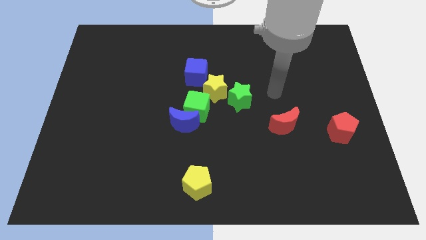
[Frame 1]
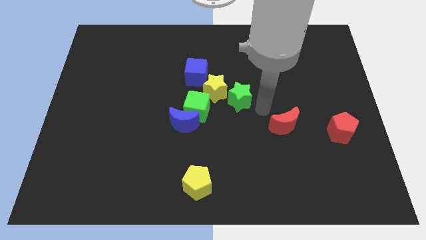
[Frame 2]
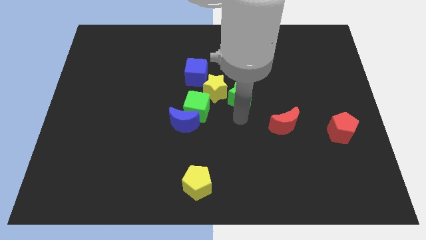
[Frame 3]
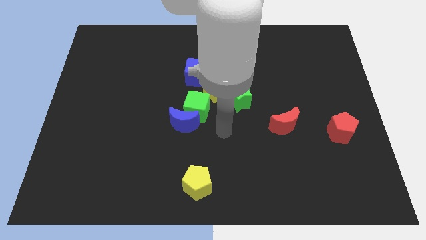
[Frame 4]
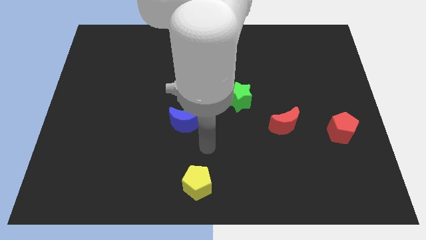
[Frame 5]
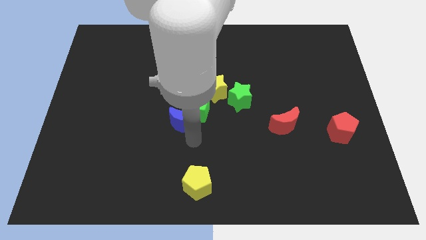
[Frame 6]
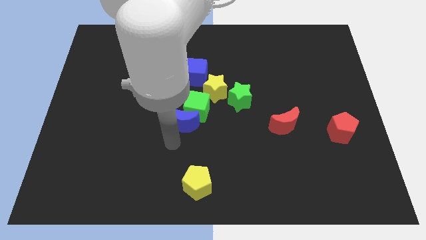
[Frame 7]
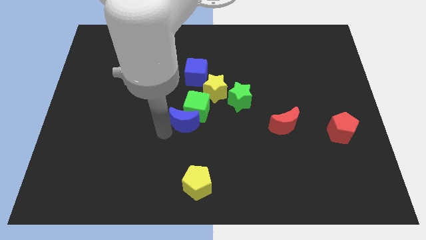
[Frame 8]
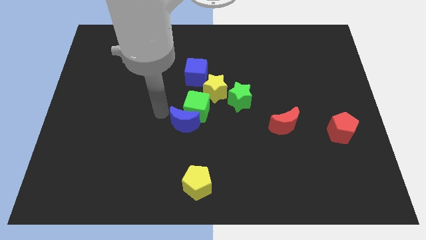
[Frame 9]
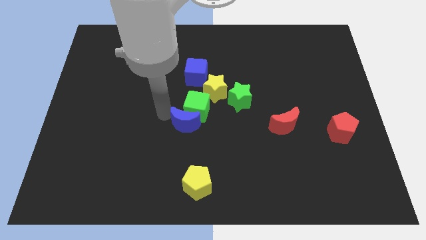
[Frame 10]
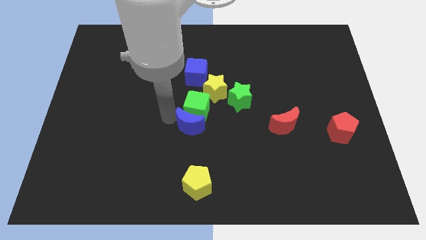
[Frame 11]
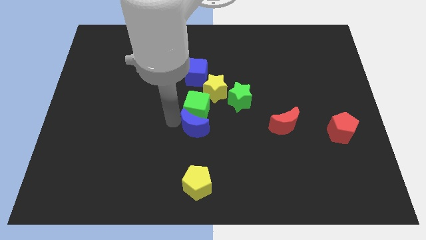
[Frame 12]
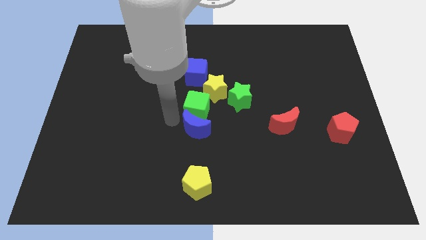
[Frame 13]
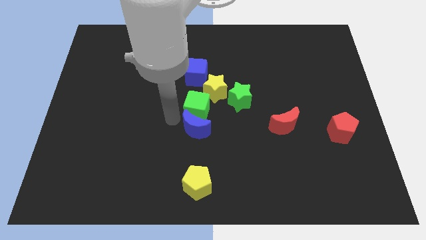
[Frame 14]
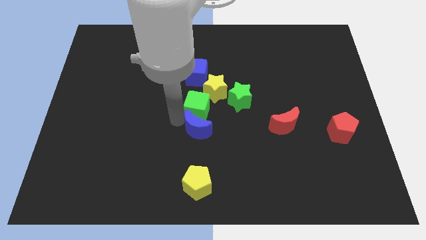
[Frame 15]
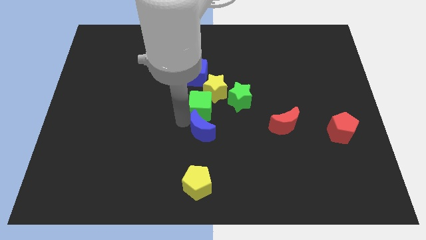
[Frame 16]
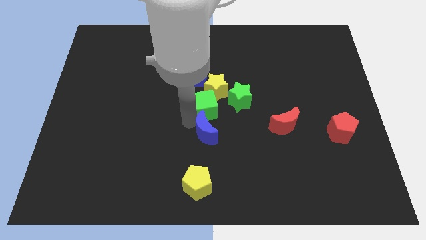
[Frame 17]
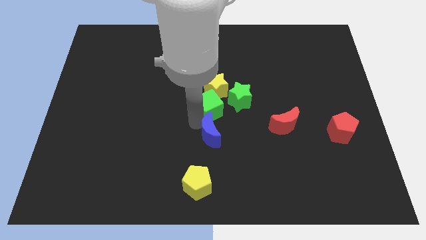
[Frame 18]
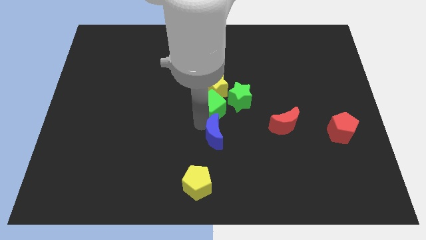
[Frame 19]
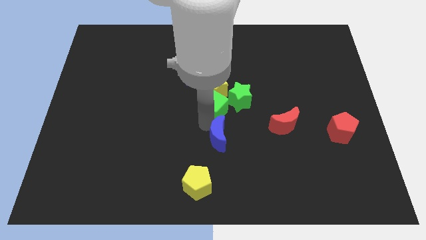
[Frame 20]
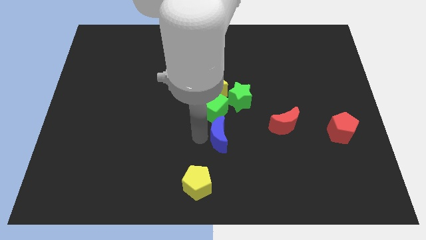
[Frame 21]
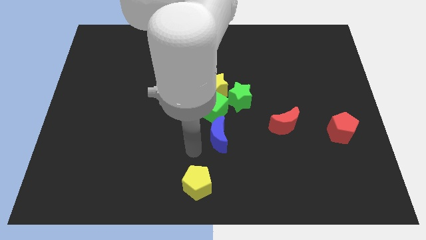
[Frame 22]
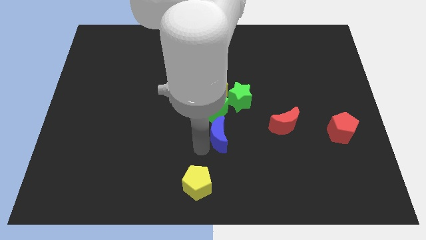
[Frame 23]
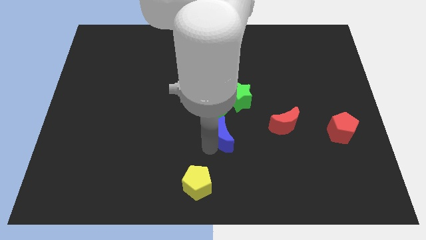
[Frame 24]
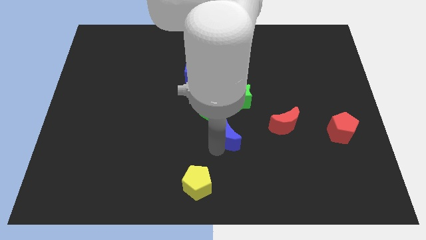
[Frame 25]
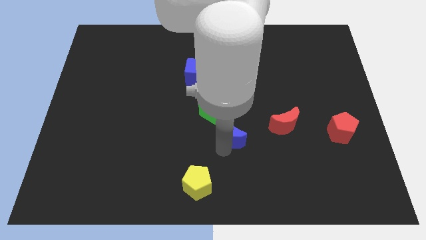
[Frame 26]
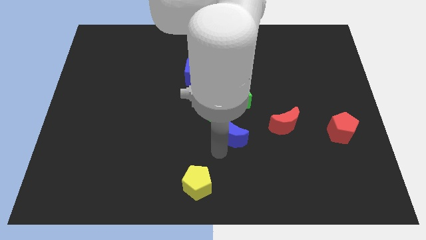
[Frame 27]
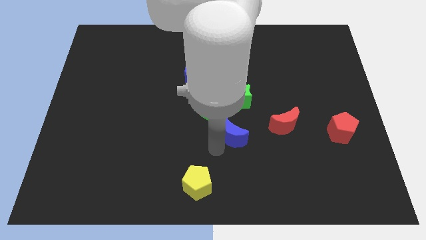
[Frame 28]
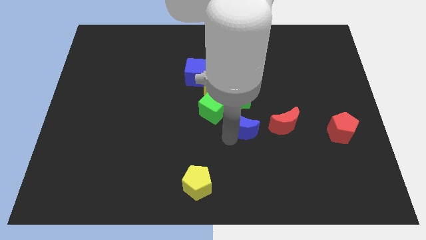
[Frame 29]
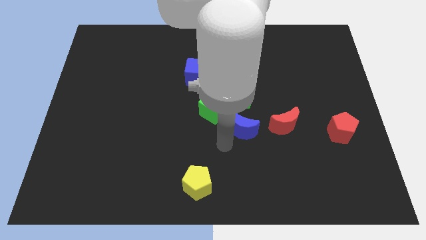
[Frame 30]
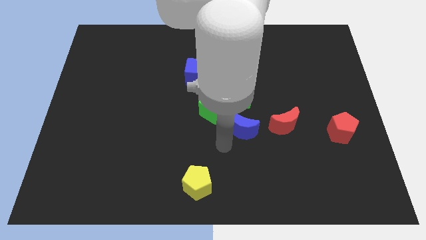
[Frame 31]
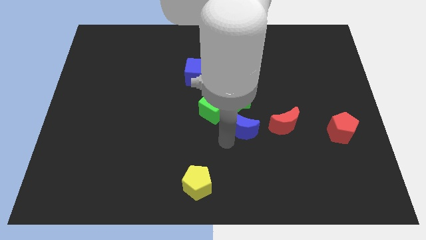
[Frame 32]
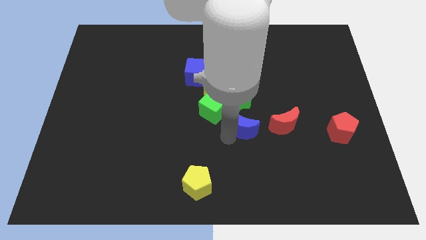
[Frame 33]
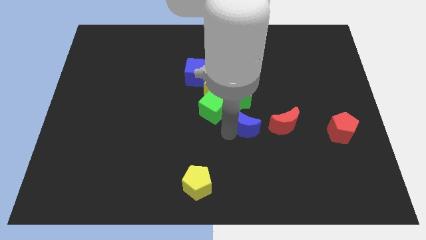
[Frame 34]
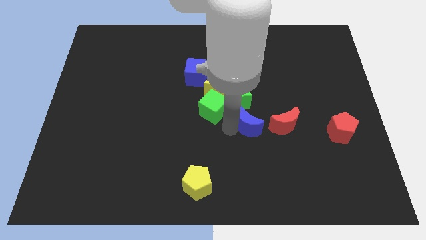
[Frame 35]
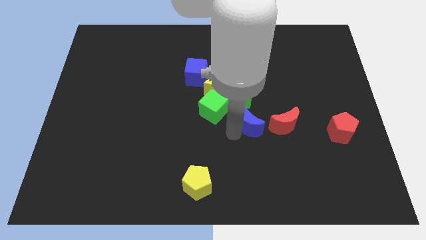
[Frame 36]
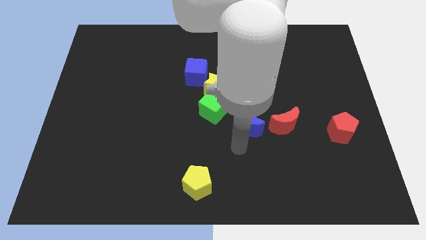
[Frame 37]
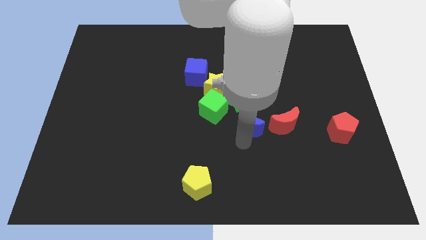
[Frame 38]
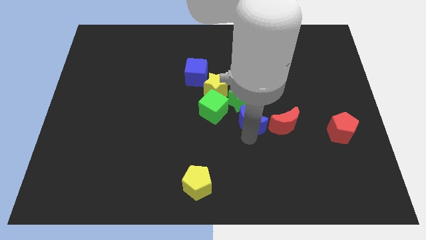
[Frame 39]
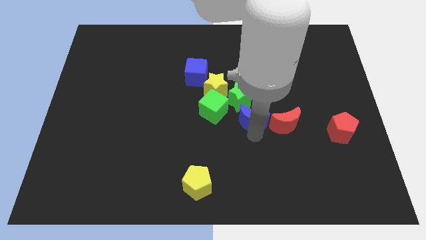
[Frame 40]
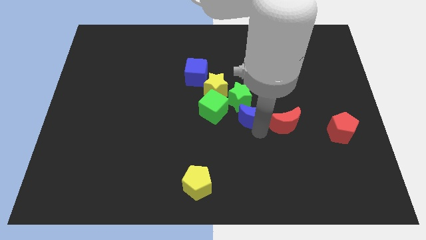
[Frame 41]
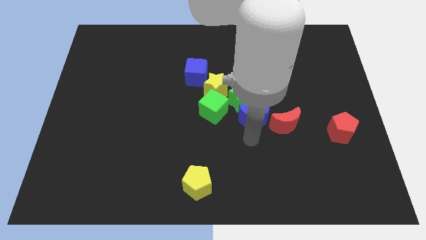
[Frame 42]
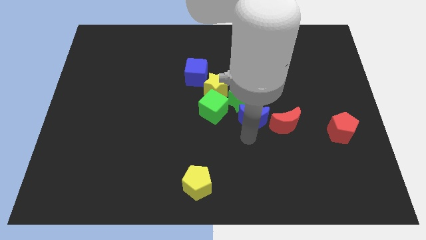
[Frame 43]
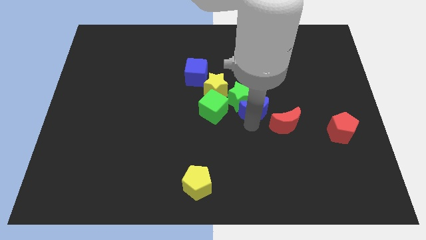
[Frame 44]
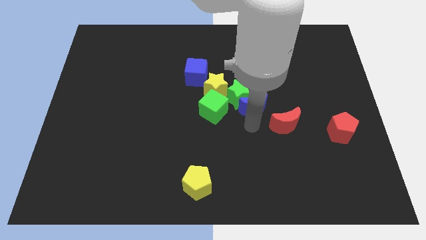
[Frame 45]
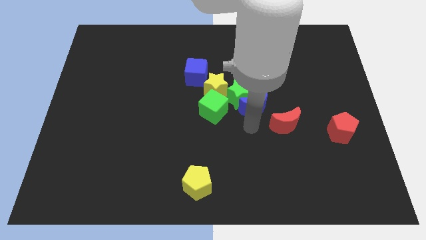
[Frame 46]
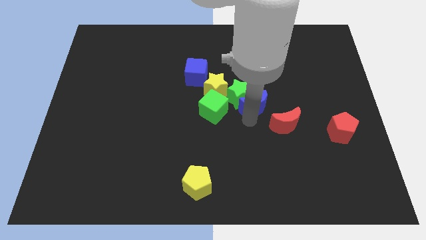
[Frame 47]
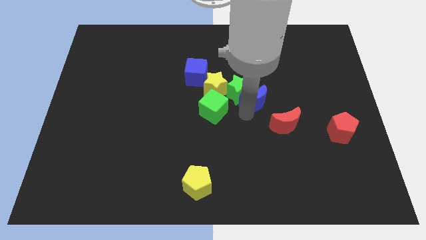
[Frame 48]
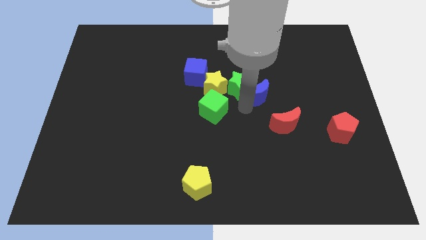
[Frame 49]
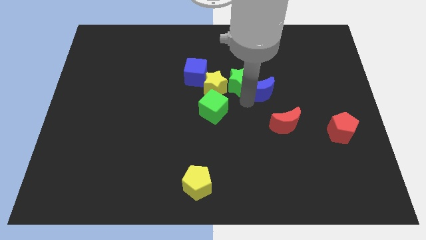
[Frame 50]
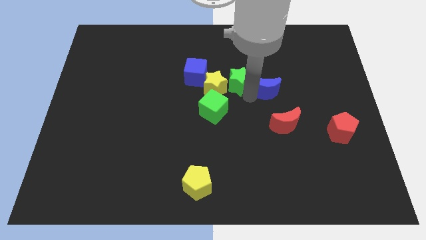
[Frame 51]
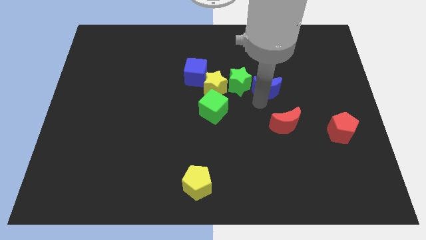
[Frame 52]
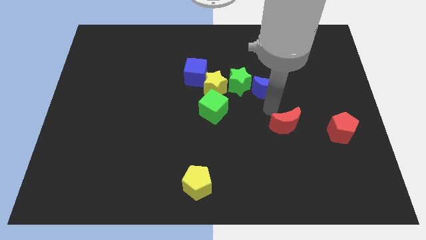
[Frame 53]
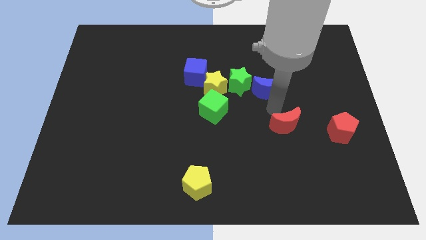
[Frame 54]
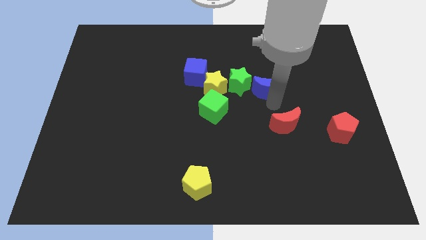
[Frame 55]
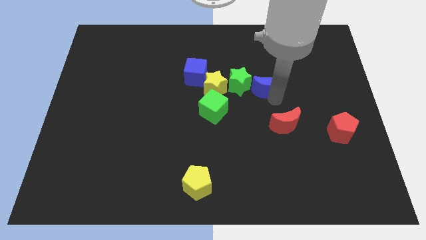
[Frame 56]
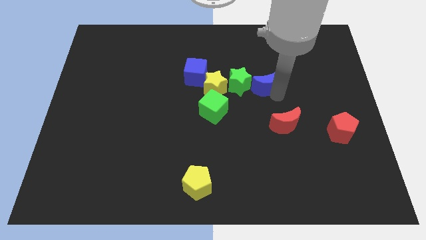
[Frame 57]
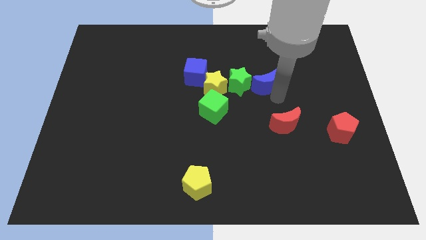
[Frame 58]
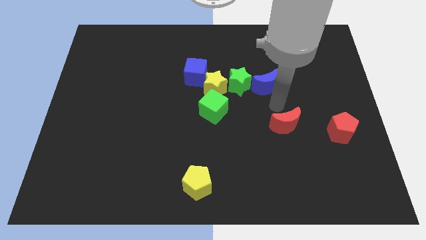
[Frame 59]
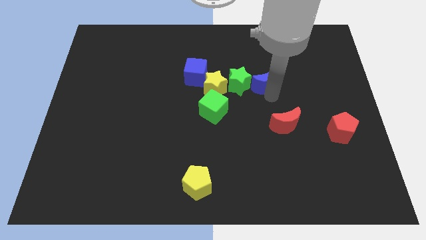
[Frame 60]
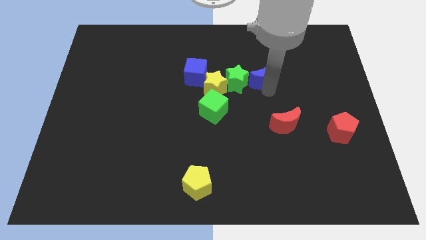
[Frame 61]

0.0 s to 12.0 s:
push the blue moon diagonally up and to the right of the green star

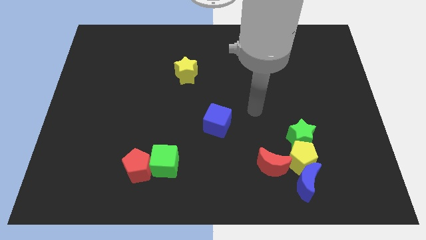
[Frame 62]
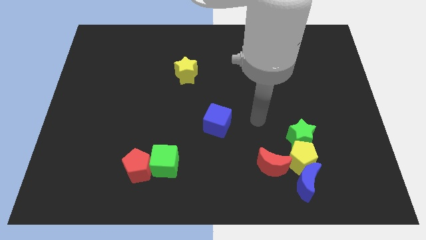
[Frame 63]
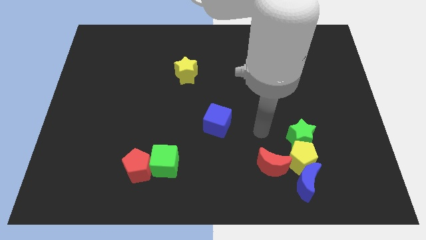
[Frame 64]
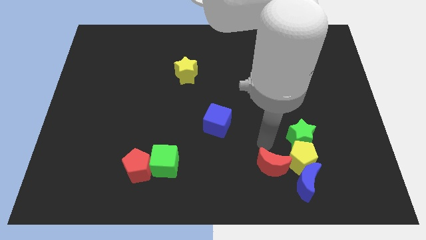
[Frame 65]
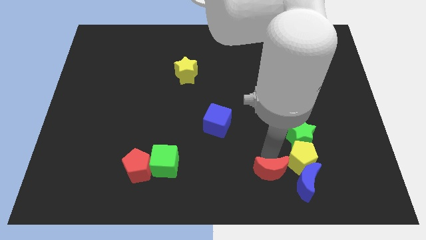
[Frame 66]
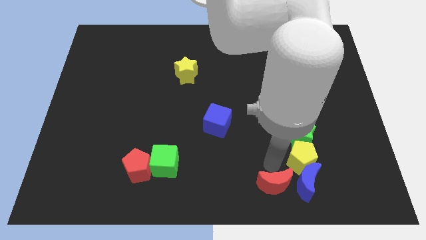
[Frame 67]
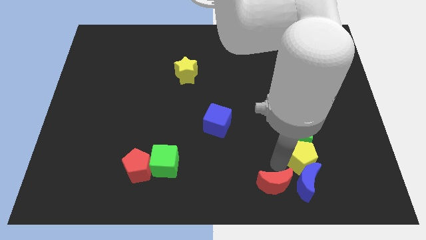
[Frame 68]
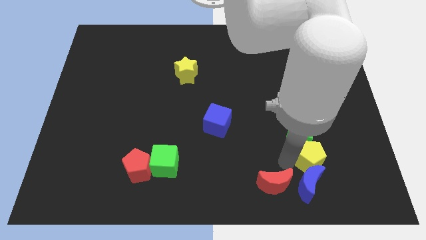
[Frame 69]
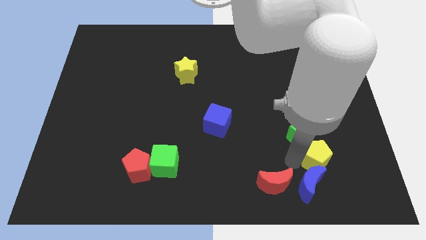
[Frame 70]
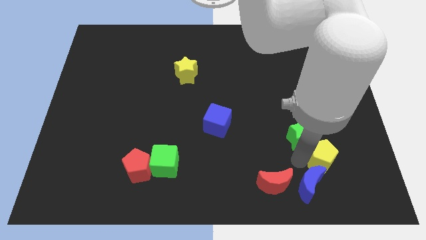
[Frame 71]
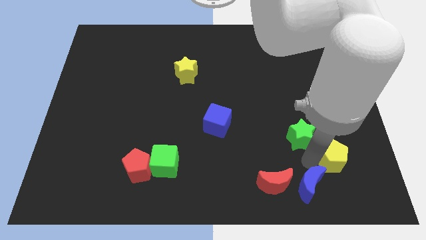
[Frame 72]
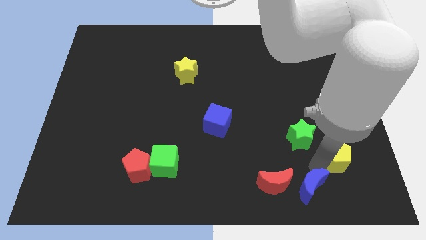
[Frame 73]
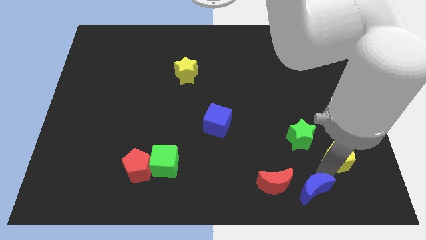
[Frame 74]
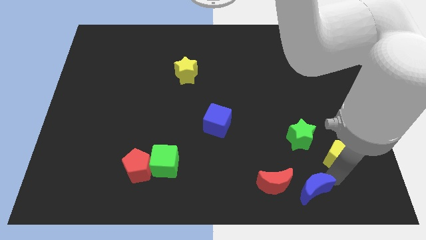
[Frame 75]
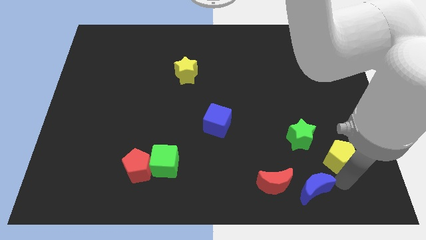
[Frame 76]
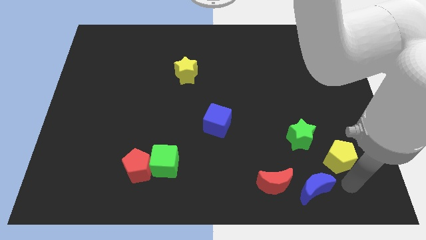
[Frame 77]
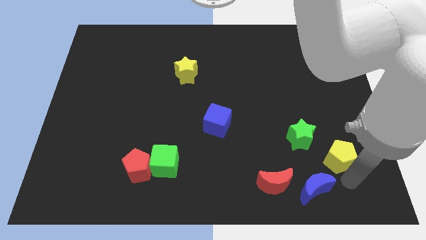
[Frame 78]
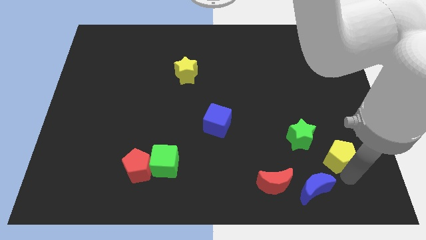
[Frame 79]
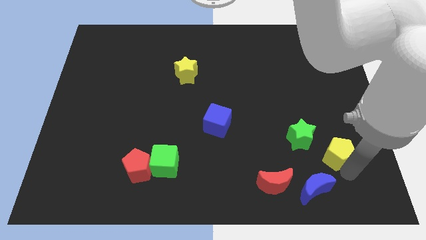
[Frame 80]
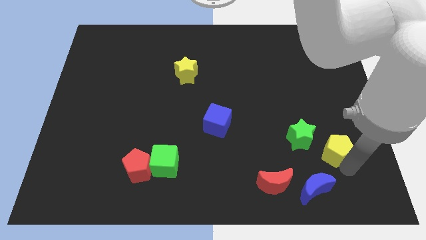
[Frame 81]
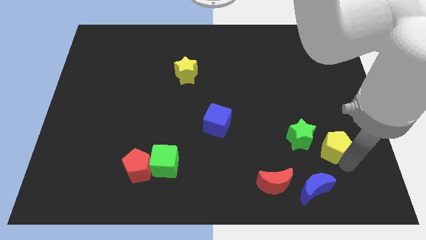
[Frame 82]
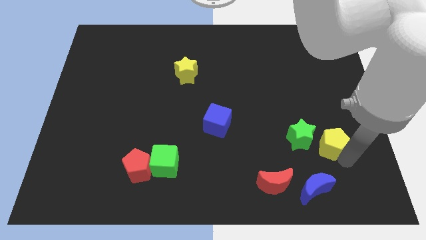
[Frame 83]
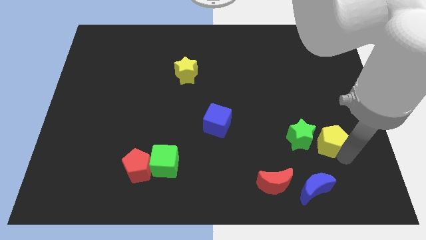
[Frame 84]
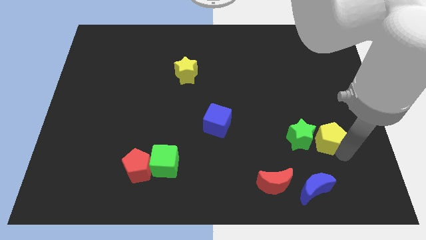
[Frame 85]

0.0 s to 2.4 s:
put the yellow pentagon diagonally up and to the right of the green star
